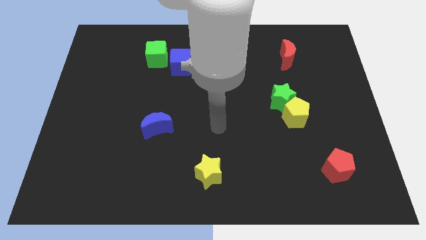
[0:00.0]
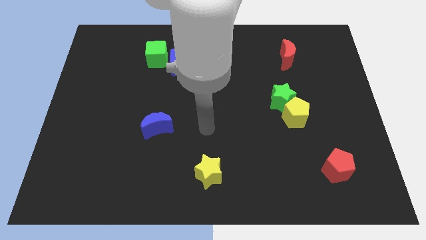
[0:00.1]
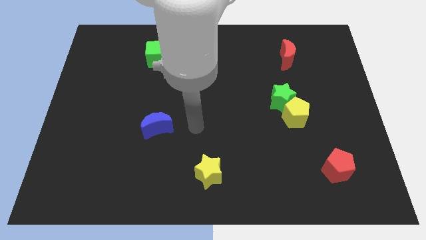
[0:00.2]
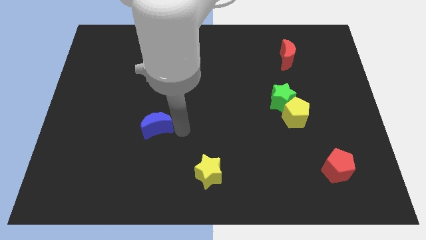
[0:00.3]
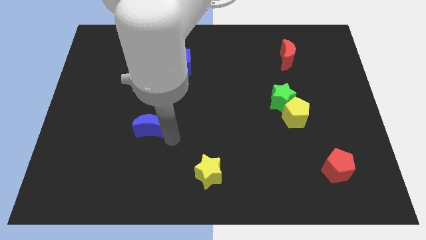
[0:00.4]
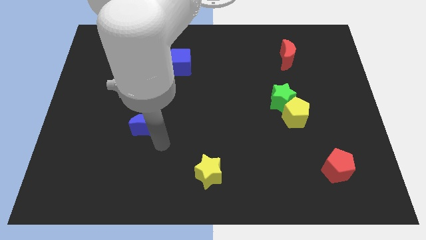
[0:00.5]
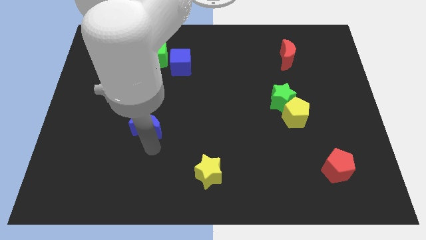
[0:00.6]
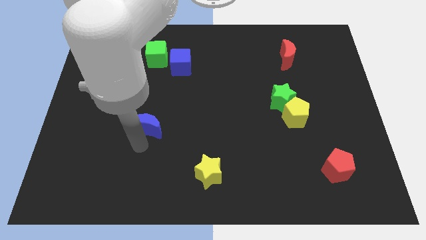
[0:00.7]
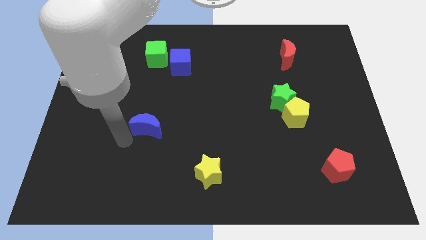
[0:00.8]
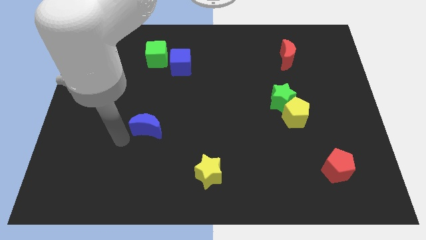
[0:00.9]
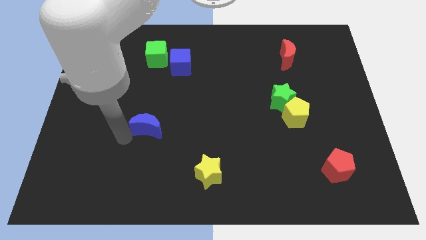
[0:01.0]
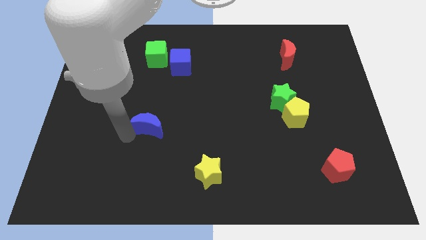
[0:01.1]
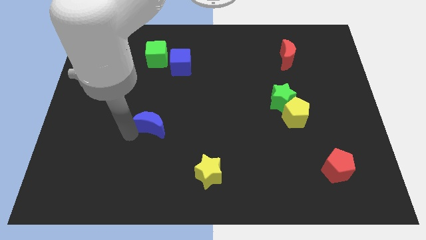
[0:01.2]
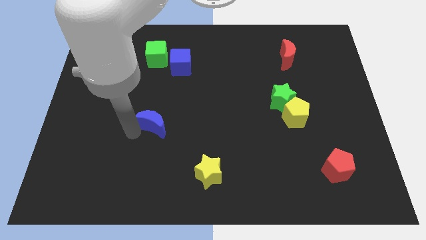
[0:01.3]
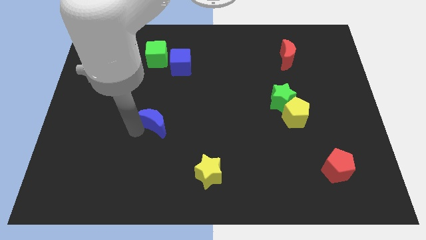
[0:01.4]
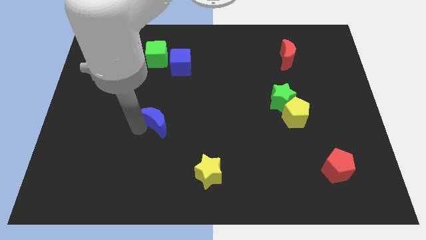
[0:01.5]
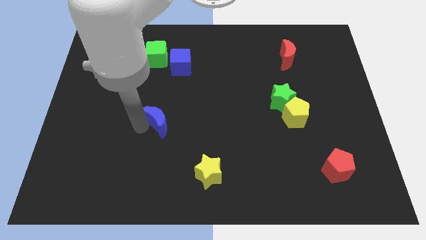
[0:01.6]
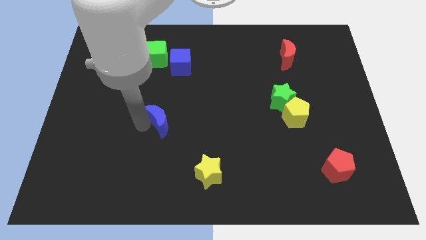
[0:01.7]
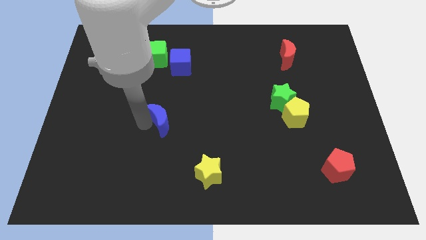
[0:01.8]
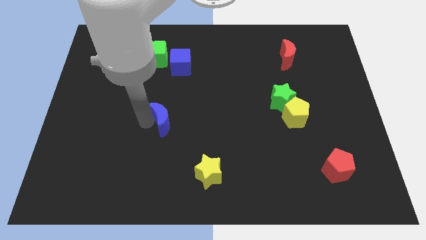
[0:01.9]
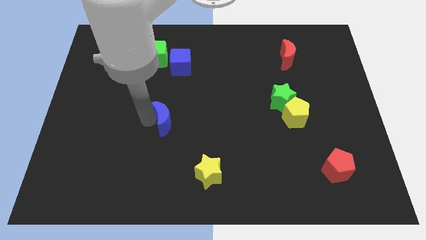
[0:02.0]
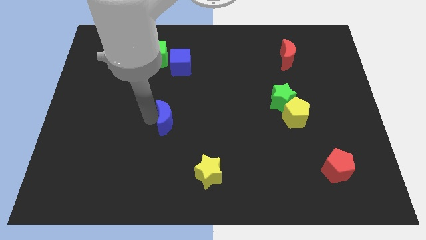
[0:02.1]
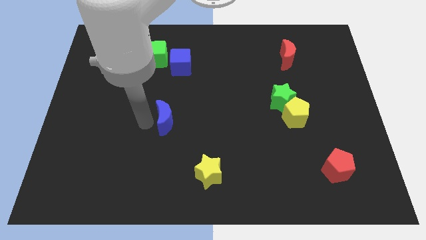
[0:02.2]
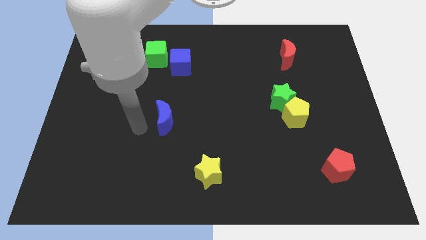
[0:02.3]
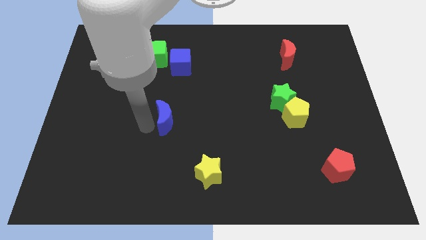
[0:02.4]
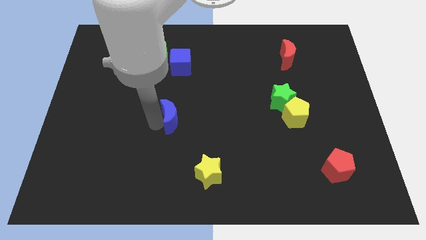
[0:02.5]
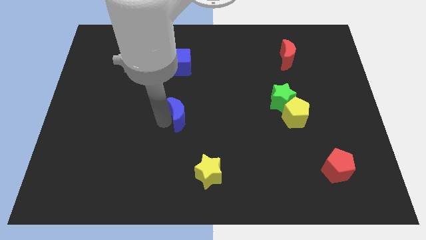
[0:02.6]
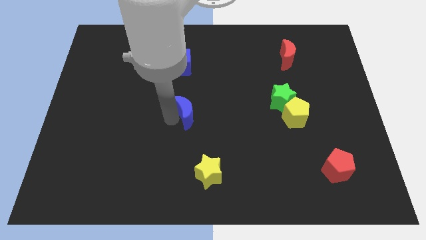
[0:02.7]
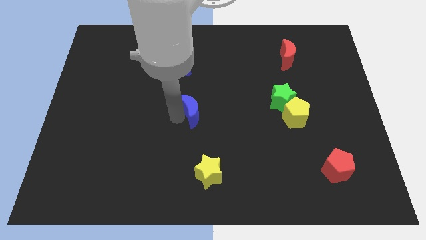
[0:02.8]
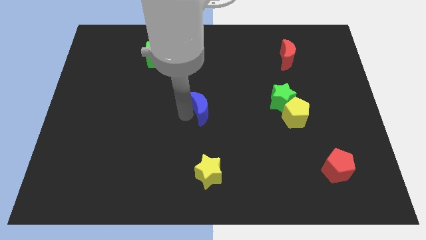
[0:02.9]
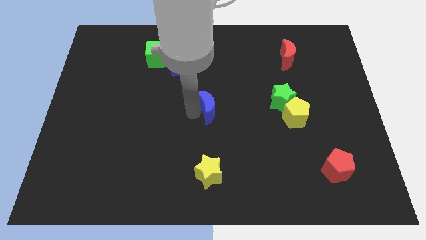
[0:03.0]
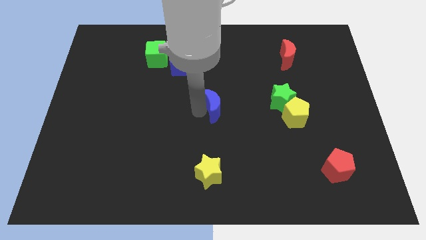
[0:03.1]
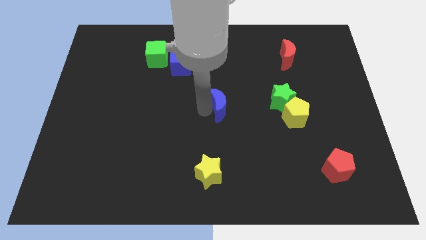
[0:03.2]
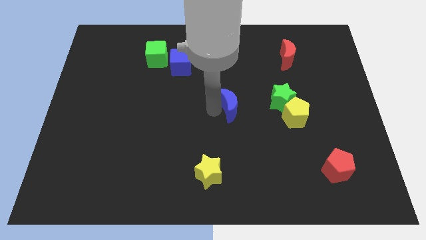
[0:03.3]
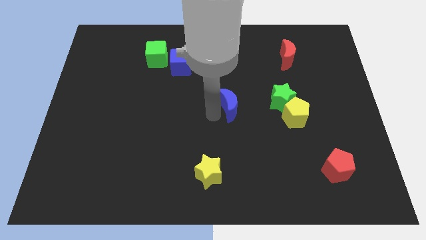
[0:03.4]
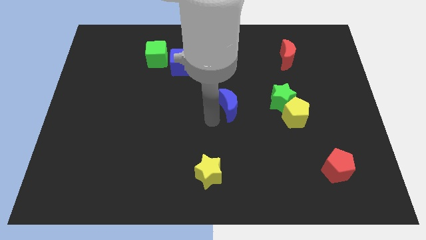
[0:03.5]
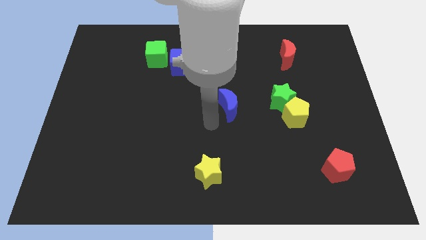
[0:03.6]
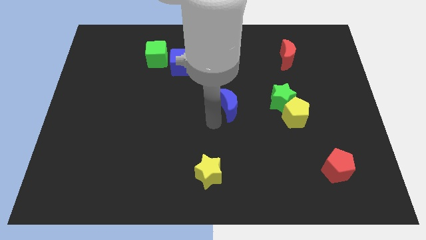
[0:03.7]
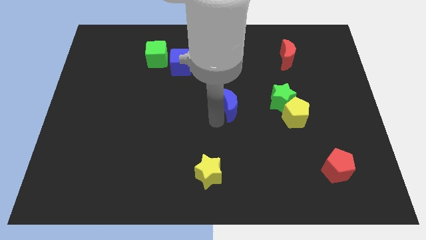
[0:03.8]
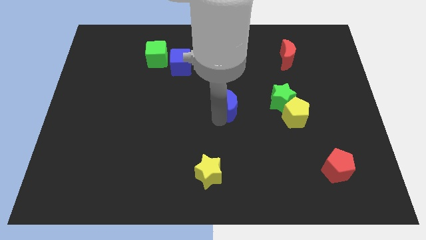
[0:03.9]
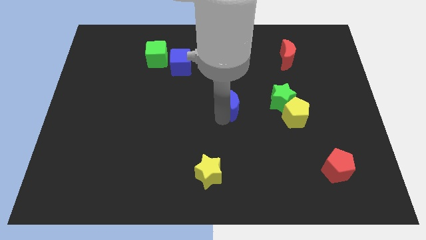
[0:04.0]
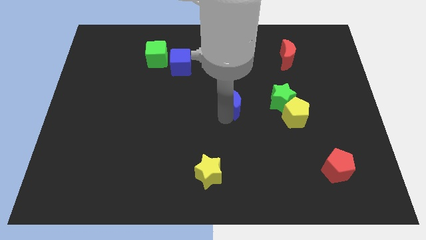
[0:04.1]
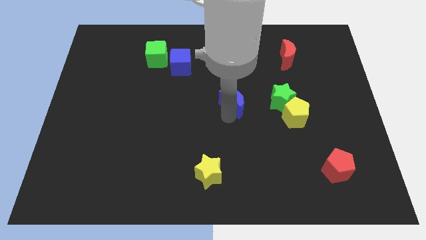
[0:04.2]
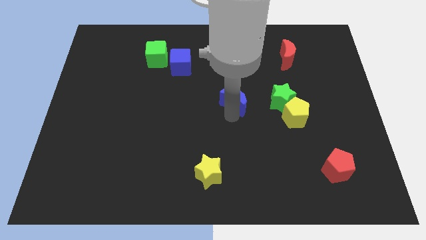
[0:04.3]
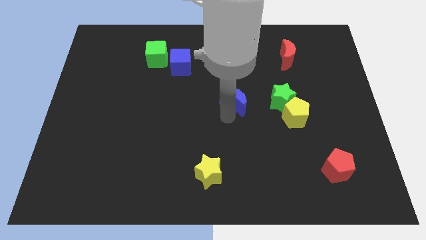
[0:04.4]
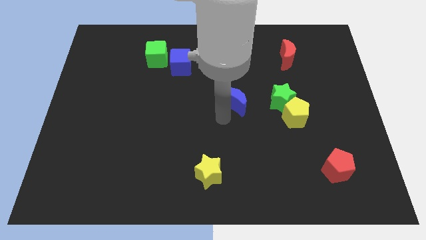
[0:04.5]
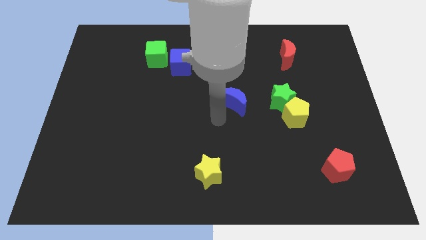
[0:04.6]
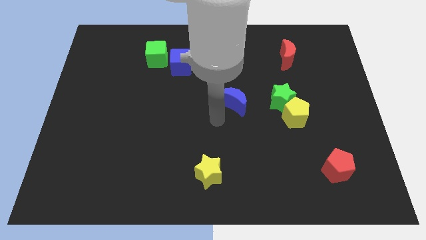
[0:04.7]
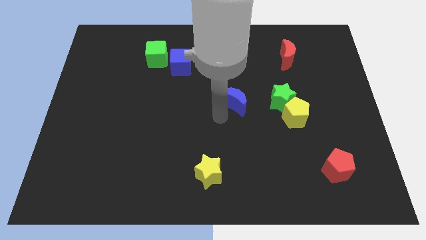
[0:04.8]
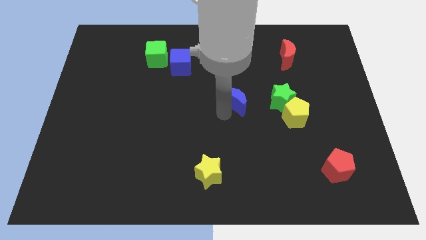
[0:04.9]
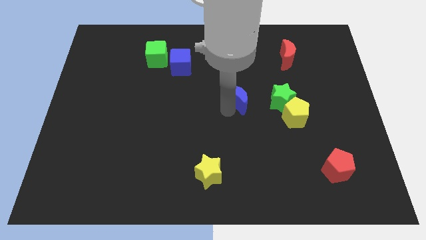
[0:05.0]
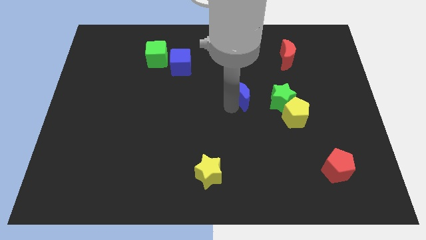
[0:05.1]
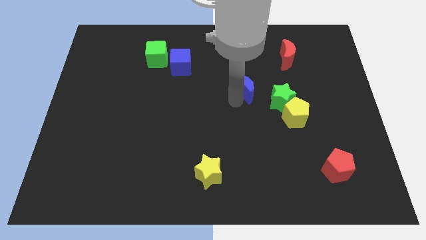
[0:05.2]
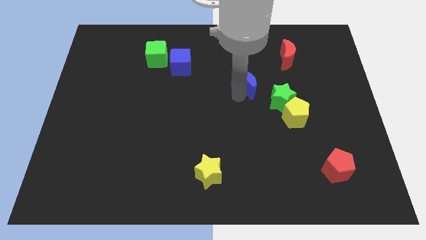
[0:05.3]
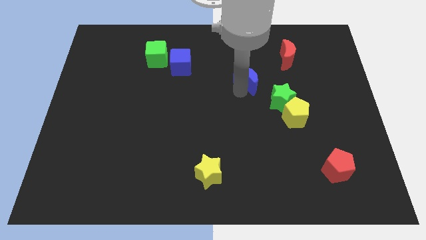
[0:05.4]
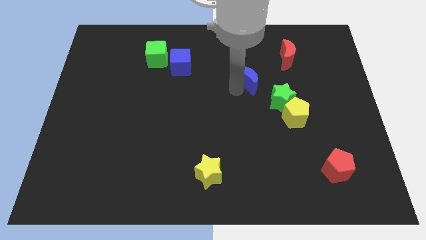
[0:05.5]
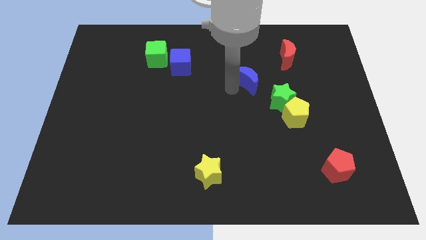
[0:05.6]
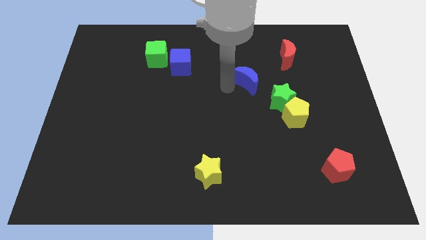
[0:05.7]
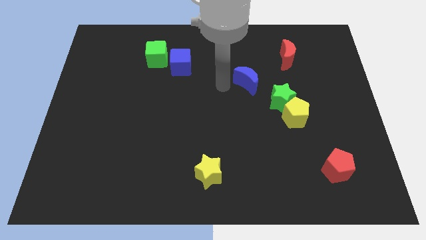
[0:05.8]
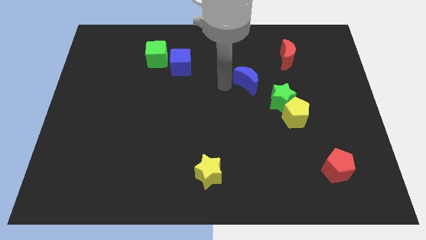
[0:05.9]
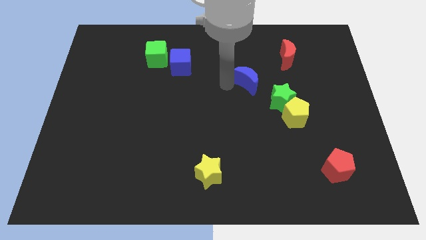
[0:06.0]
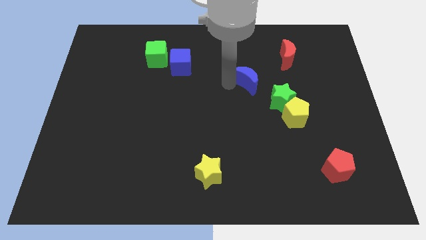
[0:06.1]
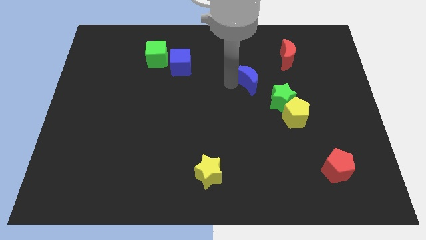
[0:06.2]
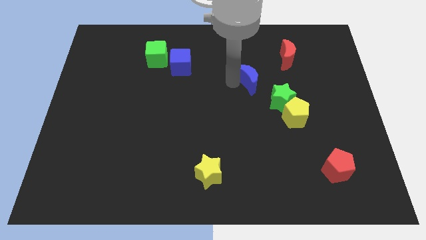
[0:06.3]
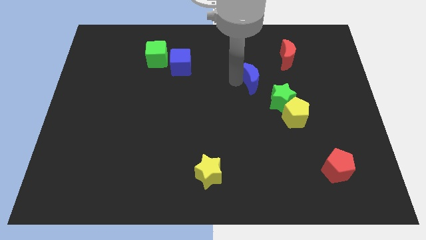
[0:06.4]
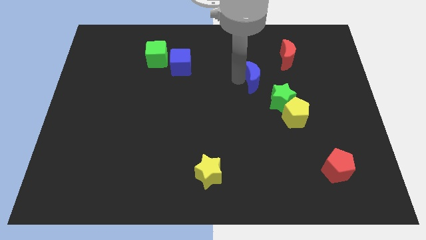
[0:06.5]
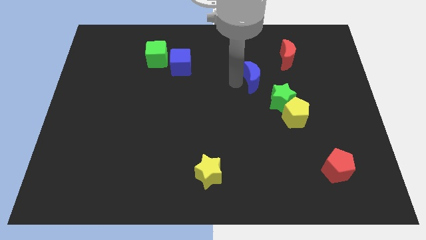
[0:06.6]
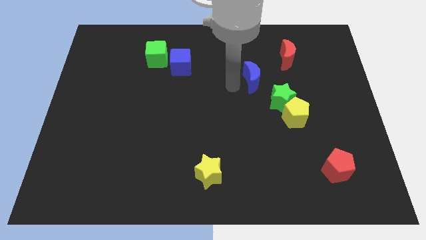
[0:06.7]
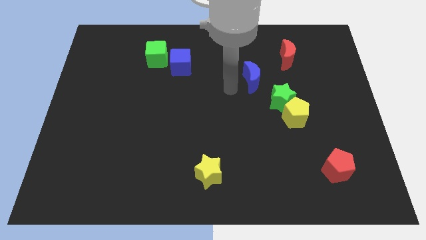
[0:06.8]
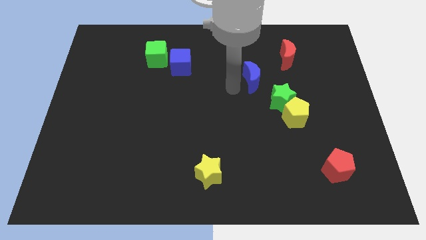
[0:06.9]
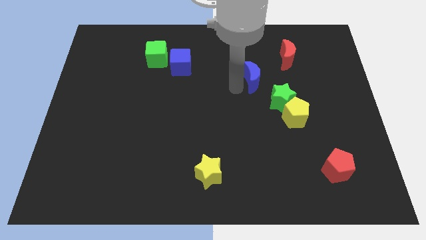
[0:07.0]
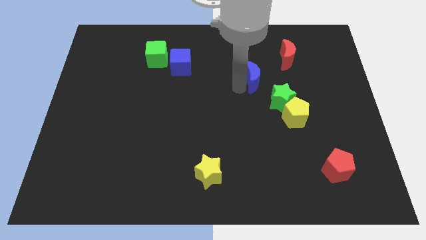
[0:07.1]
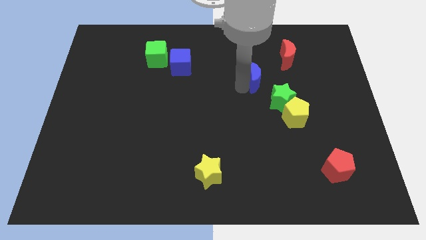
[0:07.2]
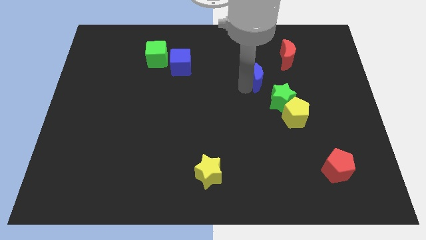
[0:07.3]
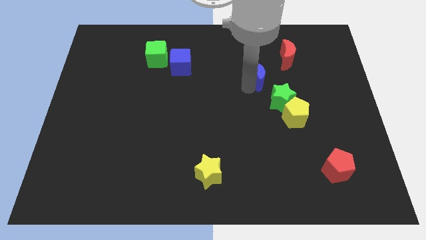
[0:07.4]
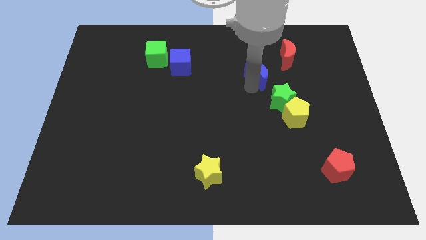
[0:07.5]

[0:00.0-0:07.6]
push the blue moon to the top of the green star
